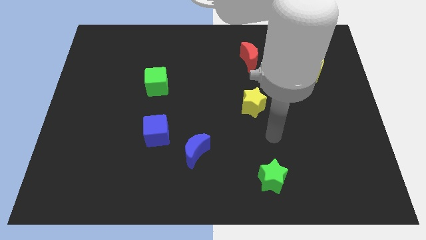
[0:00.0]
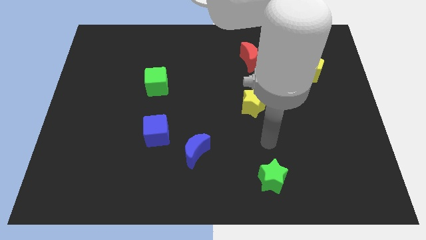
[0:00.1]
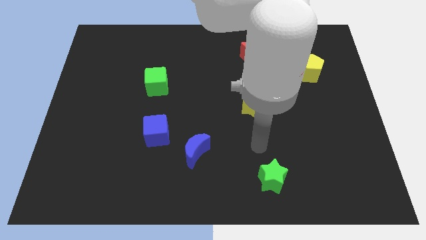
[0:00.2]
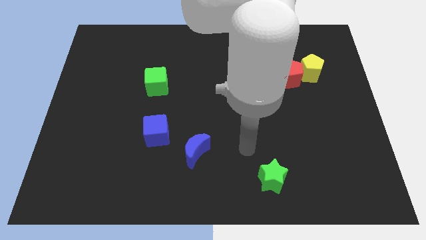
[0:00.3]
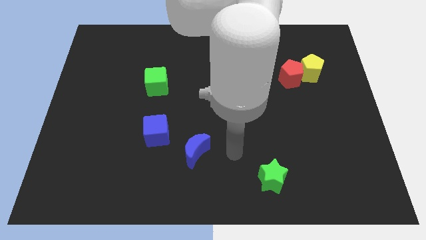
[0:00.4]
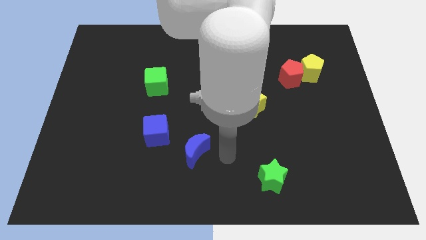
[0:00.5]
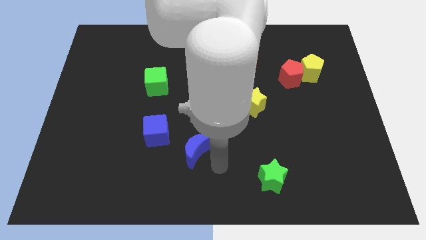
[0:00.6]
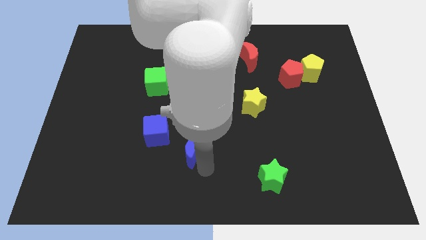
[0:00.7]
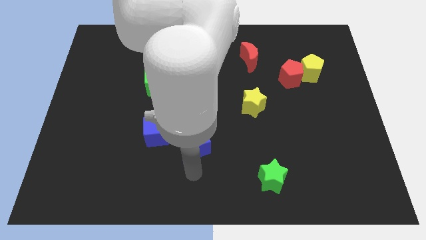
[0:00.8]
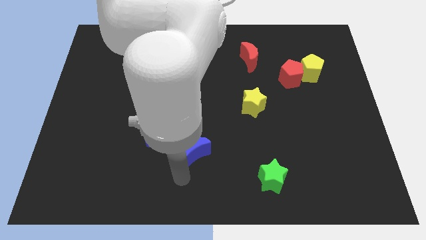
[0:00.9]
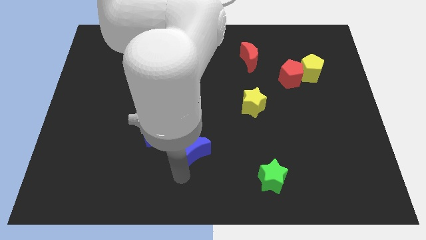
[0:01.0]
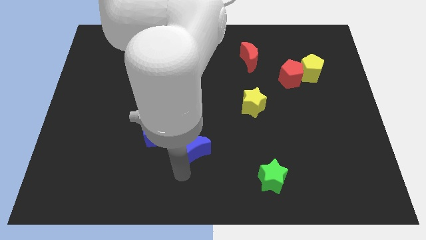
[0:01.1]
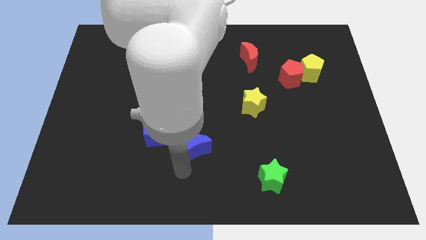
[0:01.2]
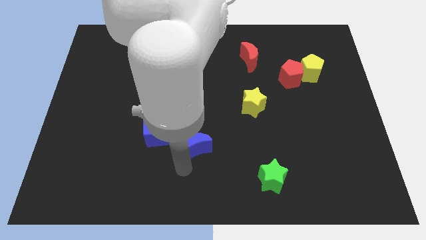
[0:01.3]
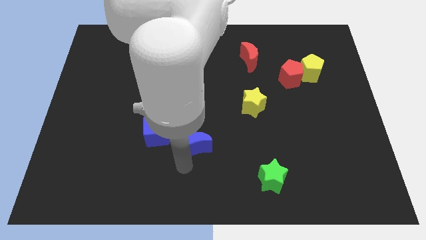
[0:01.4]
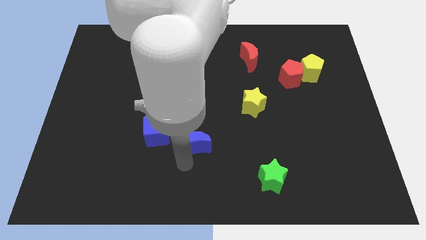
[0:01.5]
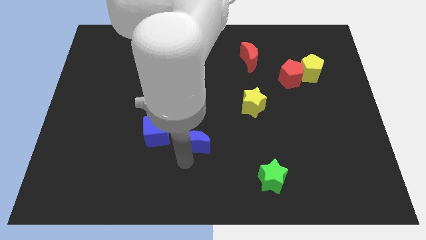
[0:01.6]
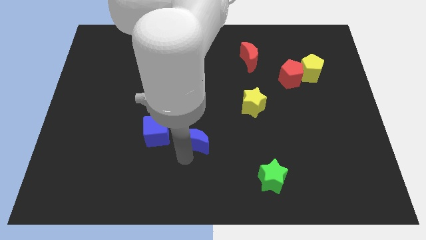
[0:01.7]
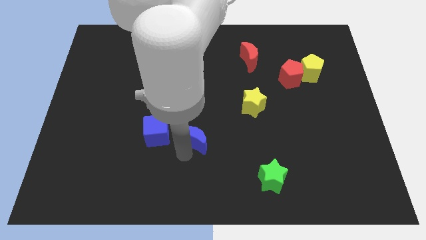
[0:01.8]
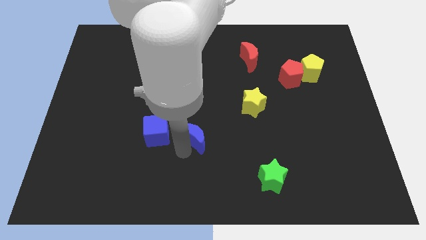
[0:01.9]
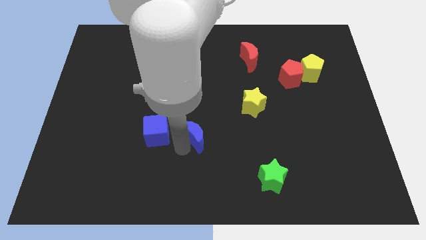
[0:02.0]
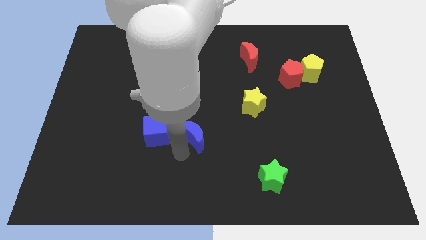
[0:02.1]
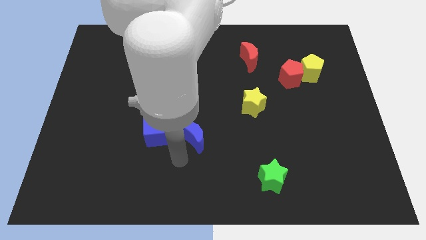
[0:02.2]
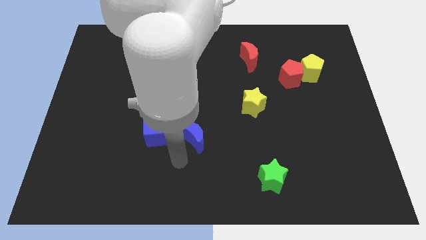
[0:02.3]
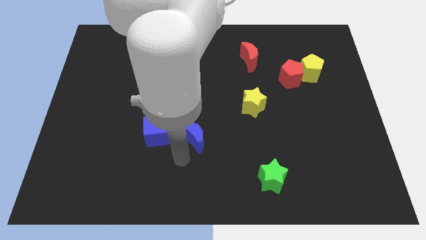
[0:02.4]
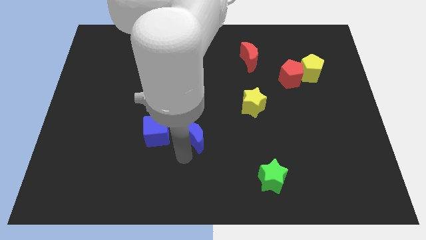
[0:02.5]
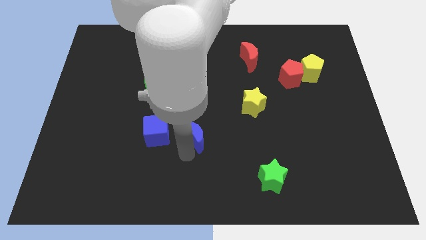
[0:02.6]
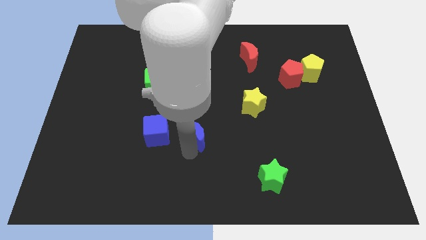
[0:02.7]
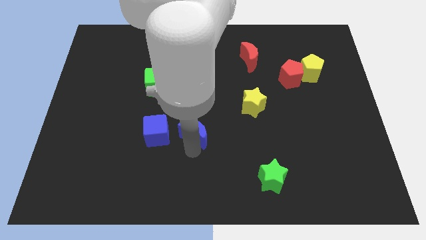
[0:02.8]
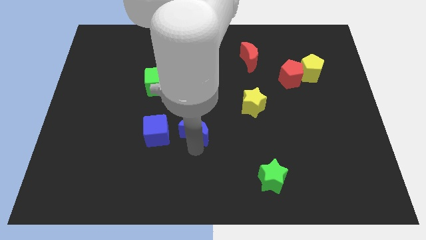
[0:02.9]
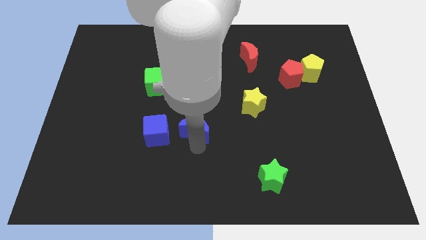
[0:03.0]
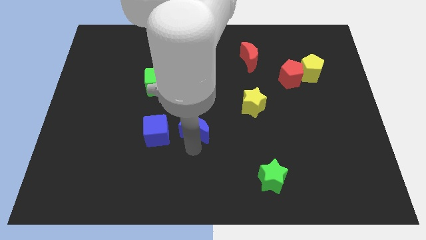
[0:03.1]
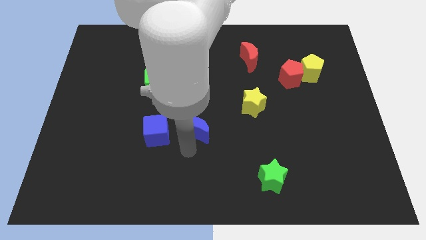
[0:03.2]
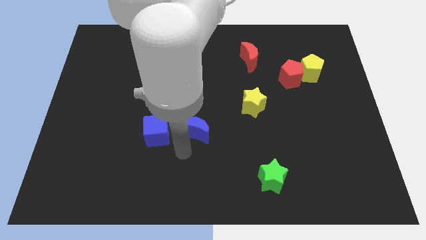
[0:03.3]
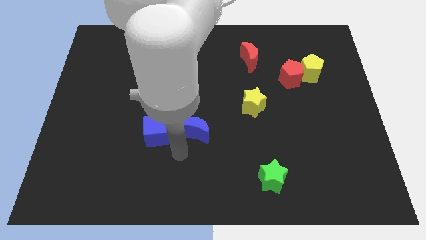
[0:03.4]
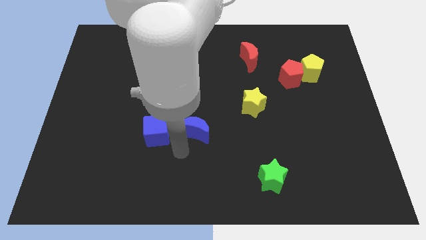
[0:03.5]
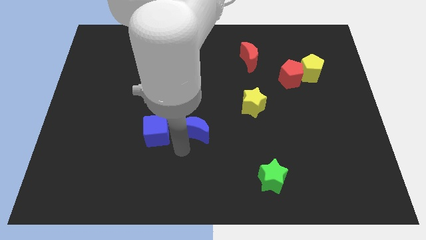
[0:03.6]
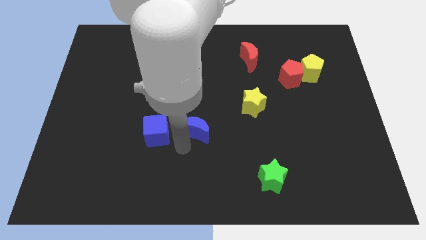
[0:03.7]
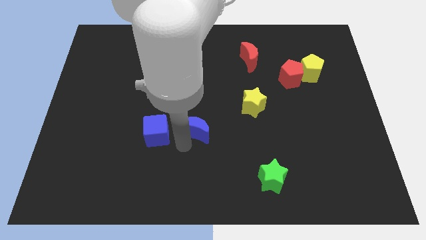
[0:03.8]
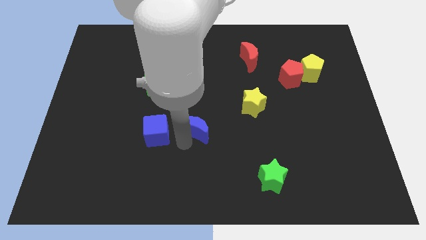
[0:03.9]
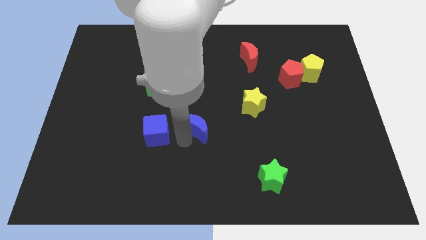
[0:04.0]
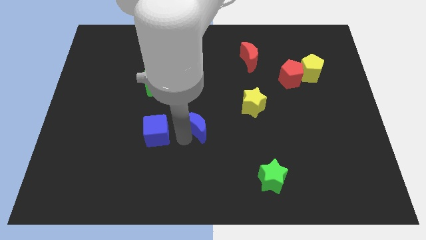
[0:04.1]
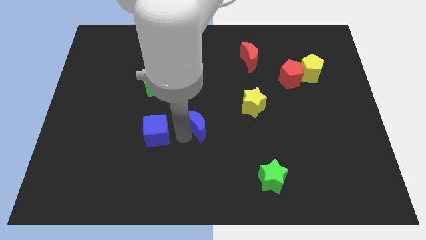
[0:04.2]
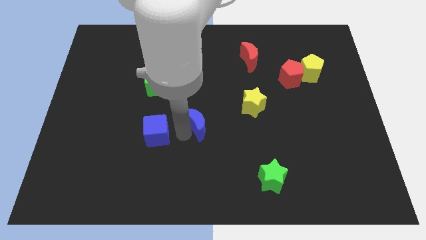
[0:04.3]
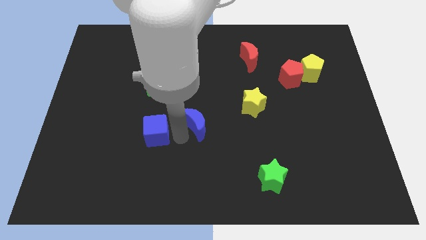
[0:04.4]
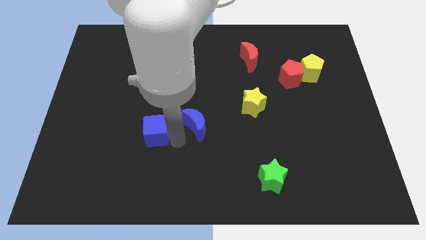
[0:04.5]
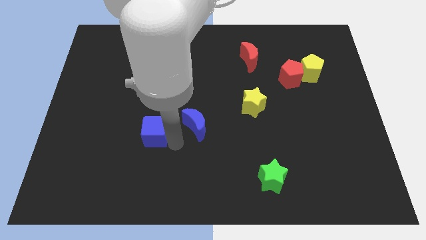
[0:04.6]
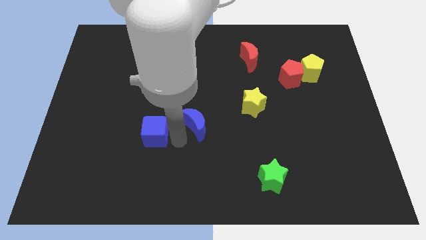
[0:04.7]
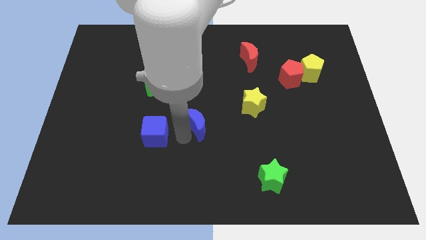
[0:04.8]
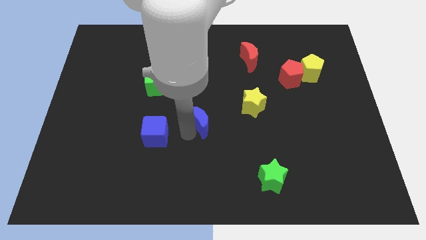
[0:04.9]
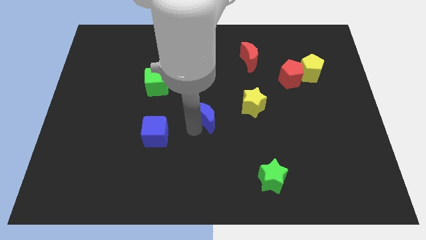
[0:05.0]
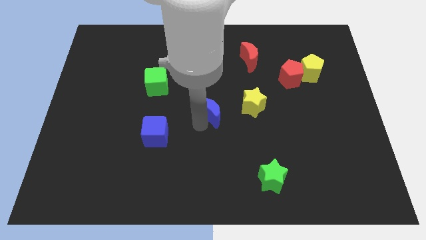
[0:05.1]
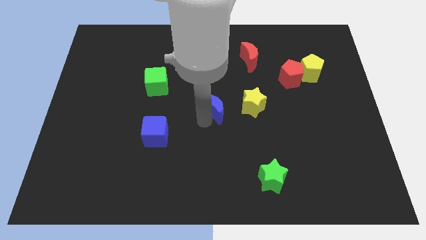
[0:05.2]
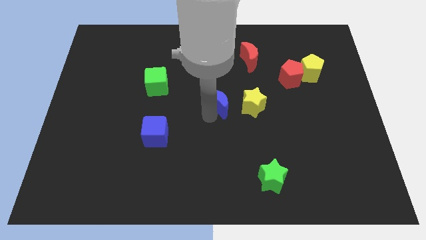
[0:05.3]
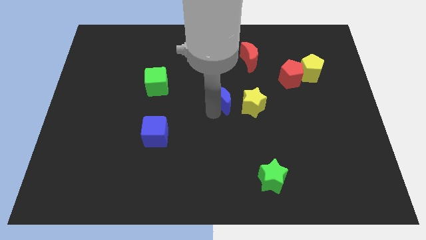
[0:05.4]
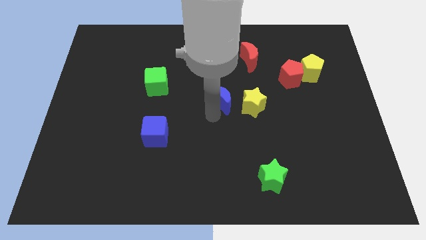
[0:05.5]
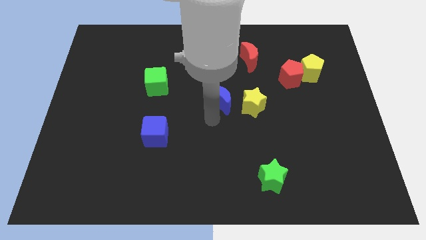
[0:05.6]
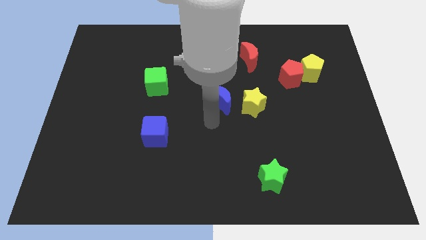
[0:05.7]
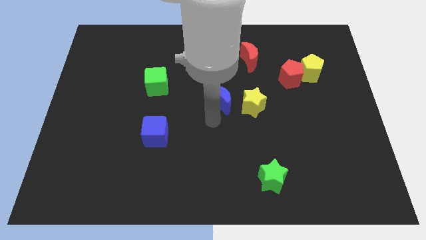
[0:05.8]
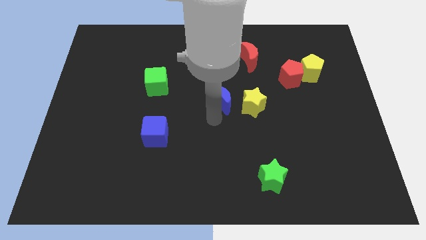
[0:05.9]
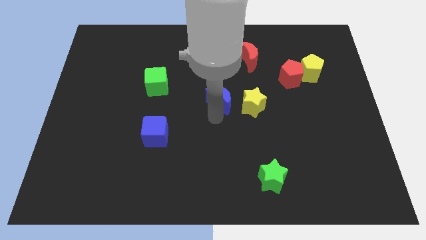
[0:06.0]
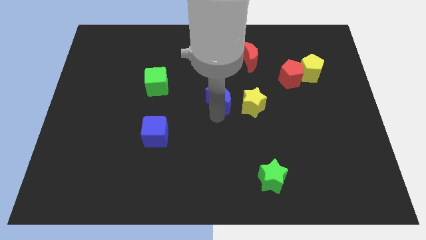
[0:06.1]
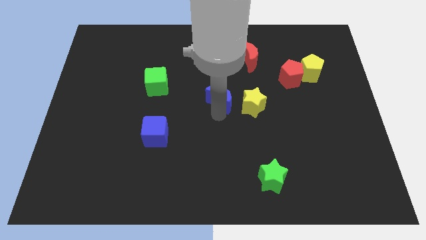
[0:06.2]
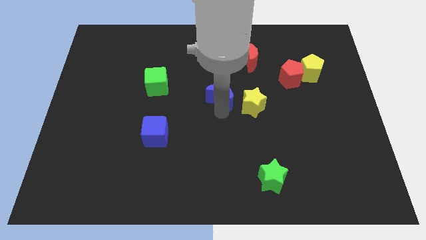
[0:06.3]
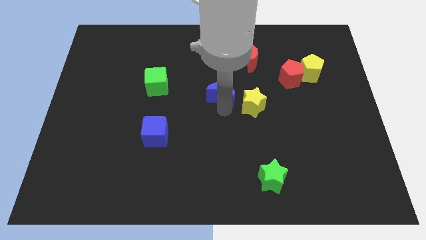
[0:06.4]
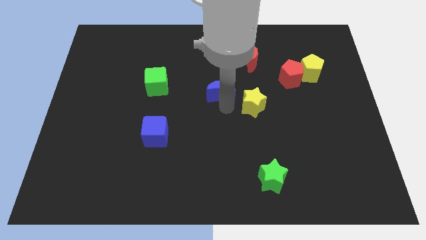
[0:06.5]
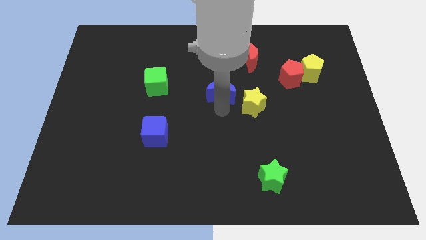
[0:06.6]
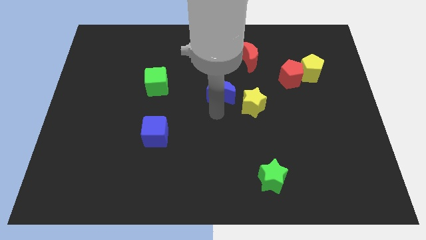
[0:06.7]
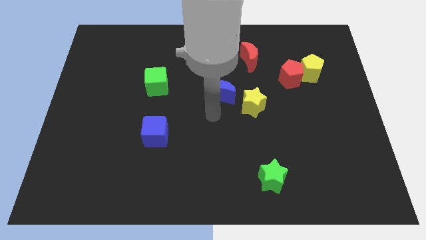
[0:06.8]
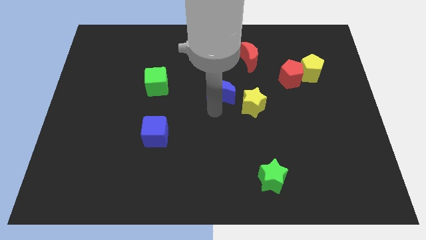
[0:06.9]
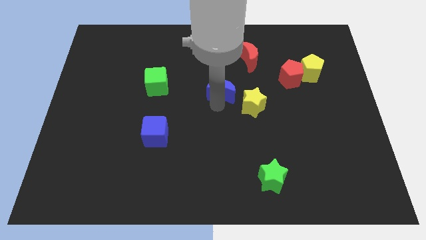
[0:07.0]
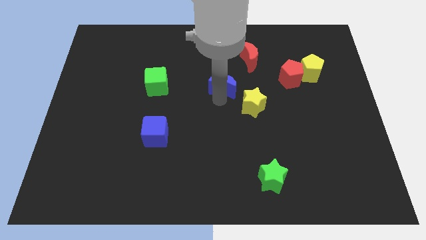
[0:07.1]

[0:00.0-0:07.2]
slide the blue moon to the bottom left of the red moon

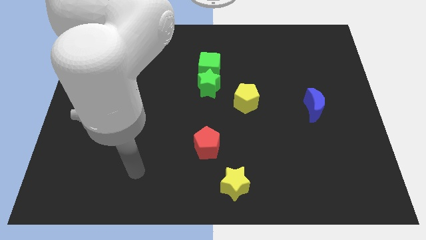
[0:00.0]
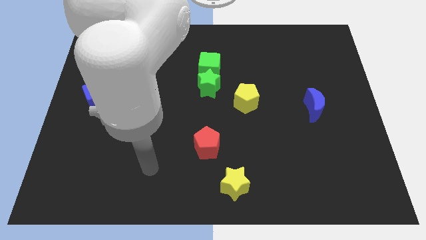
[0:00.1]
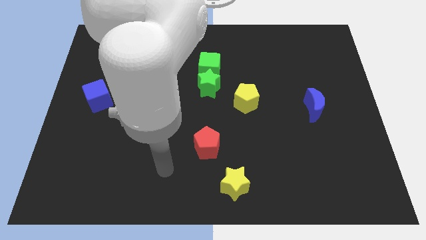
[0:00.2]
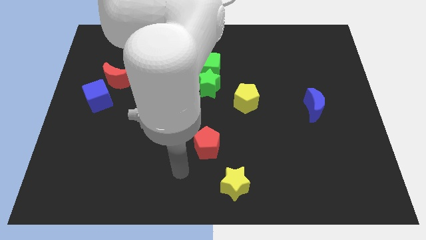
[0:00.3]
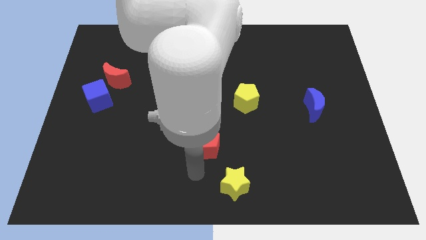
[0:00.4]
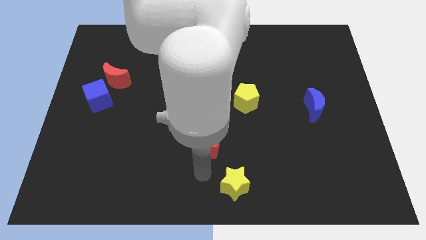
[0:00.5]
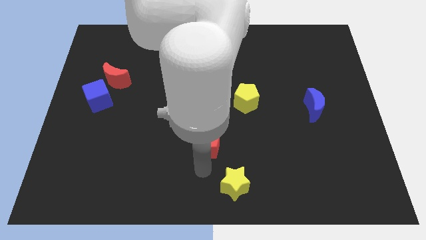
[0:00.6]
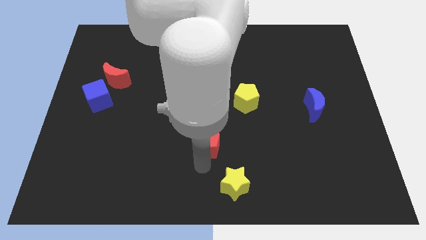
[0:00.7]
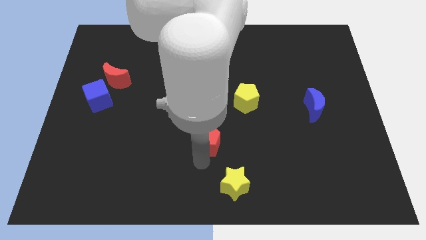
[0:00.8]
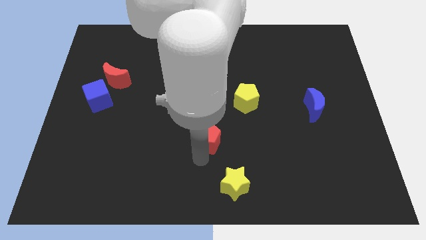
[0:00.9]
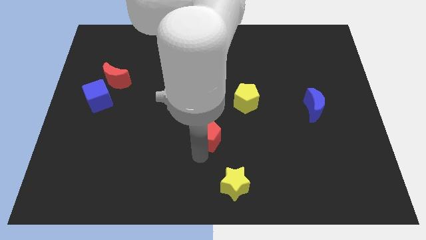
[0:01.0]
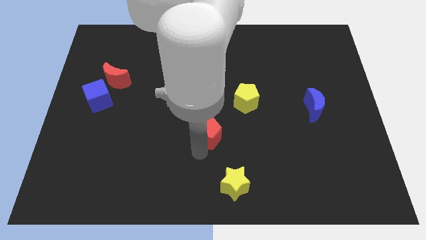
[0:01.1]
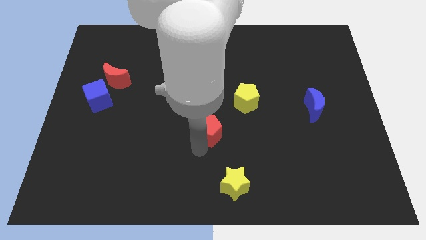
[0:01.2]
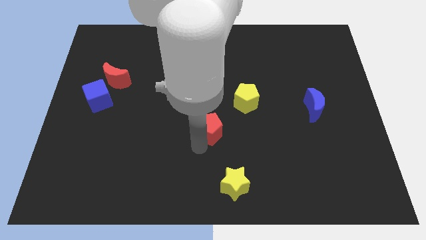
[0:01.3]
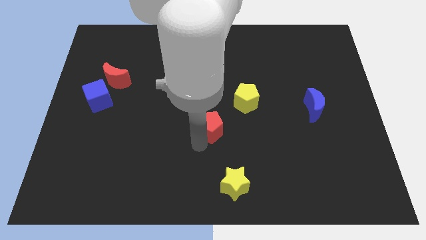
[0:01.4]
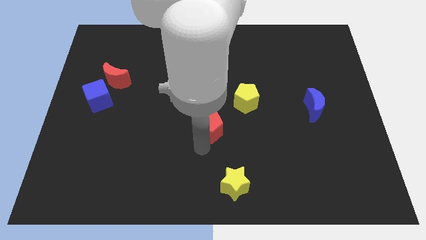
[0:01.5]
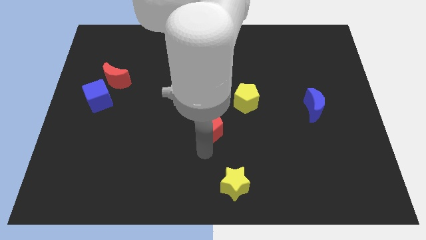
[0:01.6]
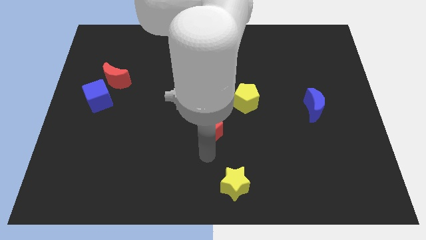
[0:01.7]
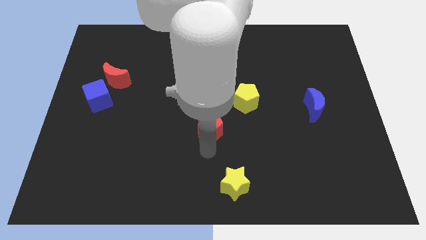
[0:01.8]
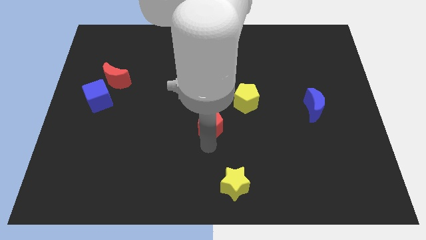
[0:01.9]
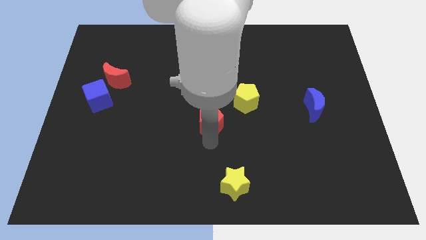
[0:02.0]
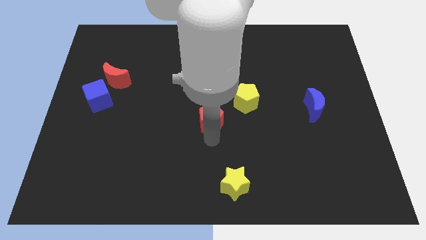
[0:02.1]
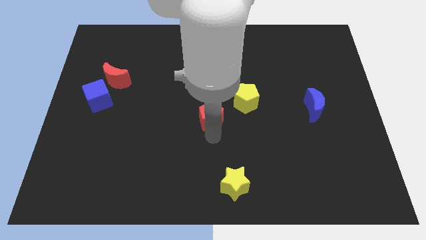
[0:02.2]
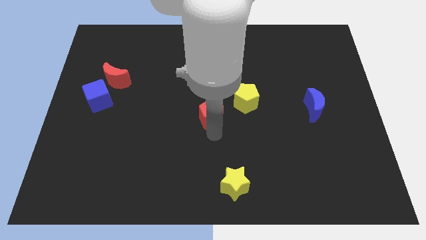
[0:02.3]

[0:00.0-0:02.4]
put the red pentagon just left of the yellow pentagon
